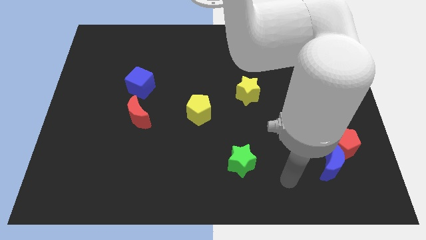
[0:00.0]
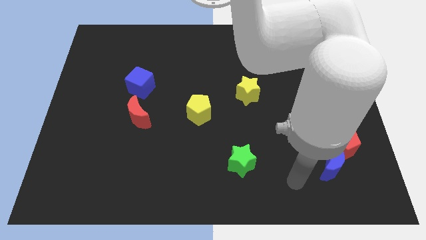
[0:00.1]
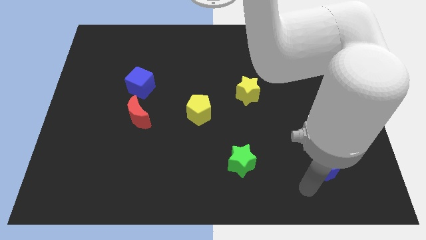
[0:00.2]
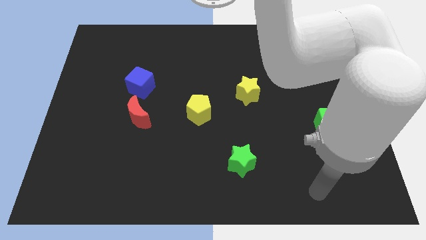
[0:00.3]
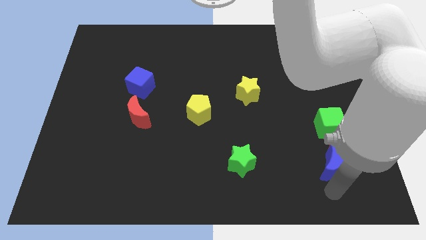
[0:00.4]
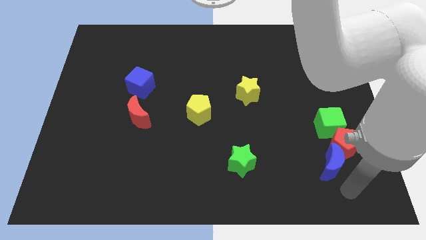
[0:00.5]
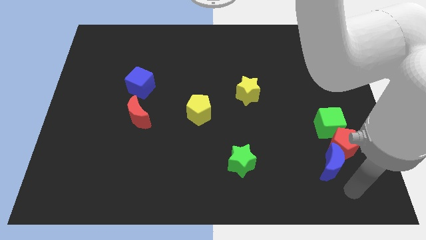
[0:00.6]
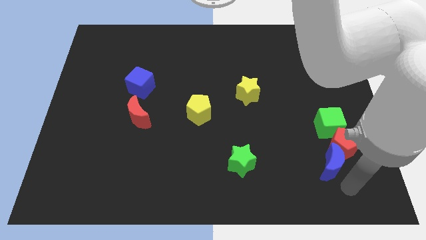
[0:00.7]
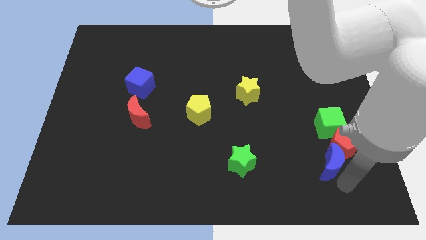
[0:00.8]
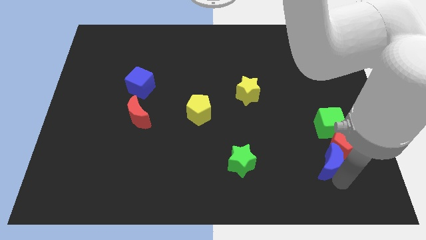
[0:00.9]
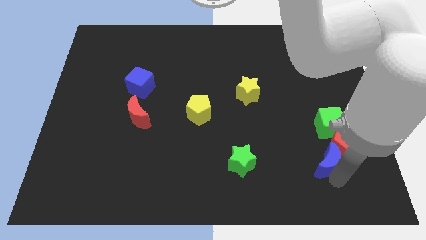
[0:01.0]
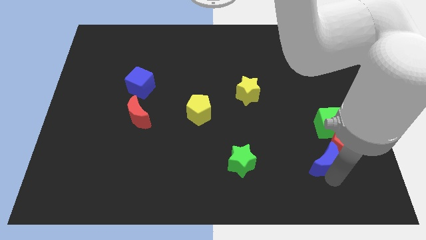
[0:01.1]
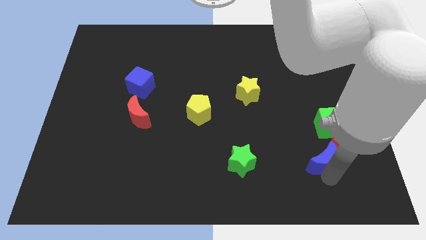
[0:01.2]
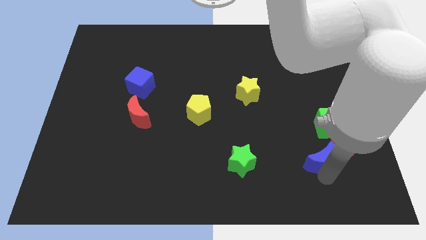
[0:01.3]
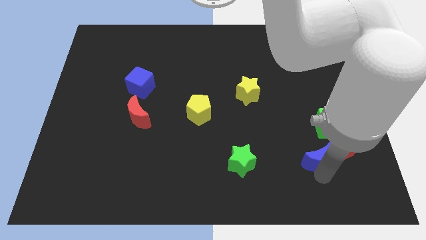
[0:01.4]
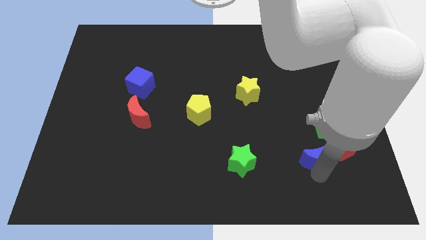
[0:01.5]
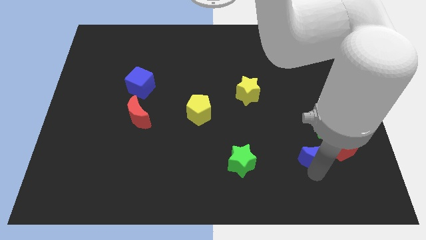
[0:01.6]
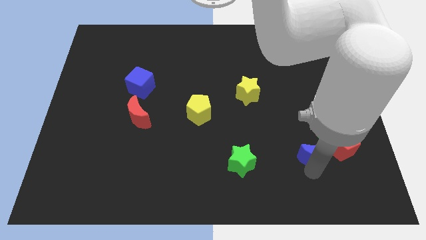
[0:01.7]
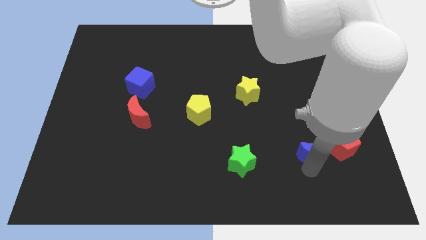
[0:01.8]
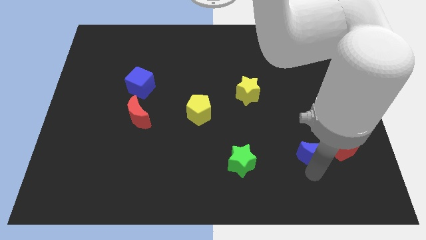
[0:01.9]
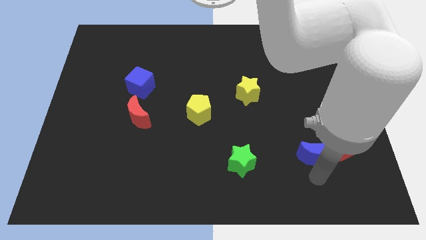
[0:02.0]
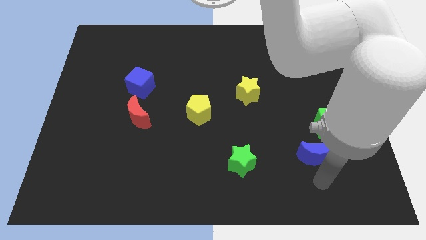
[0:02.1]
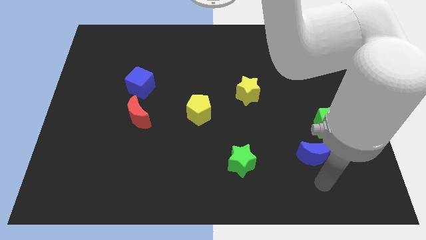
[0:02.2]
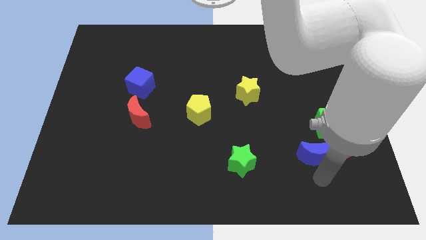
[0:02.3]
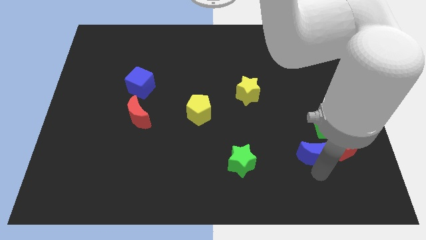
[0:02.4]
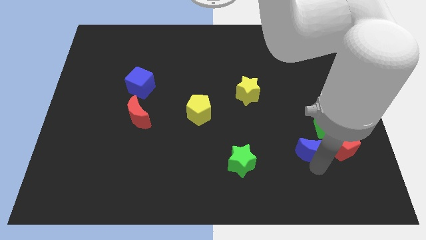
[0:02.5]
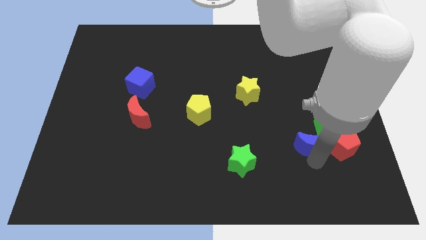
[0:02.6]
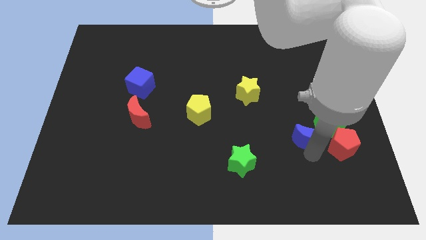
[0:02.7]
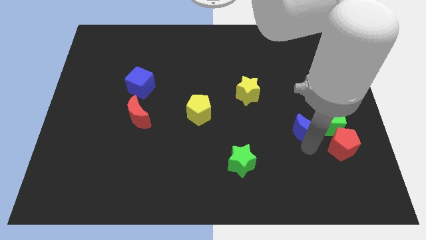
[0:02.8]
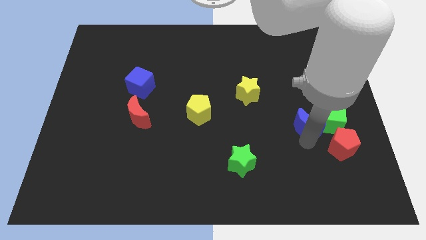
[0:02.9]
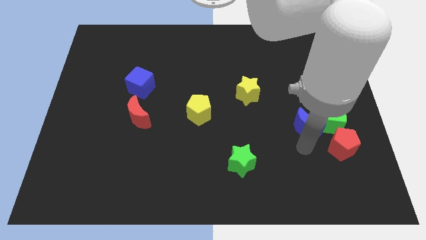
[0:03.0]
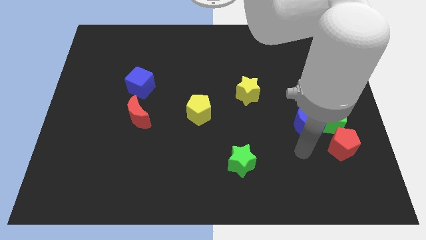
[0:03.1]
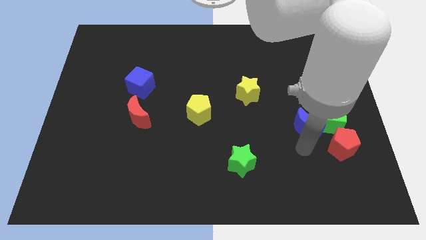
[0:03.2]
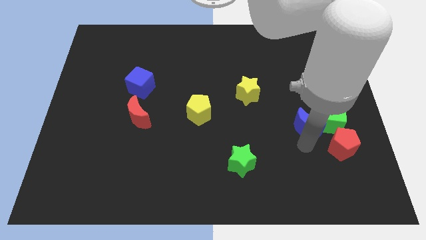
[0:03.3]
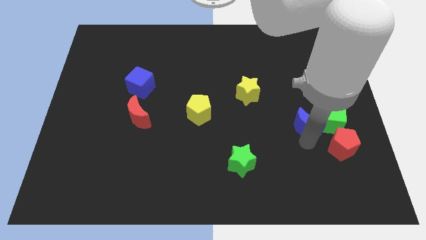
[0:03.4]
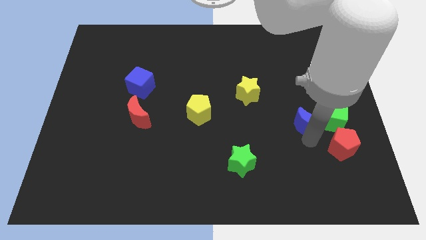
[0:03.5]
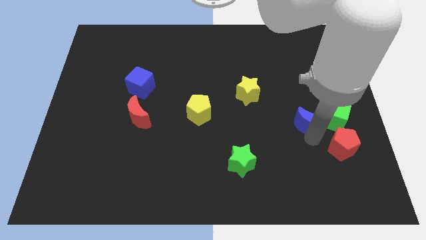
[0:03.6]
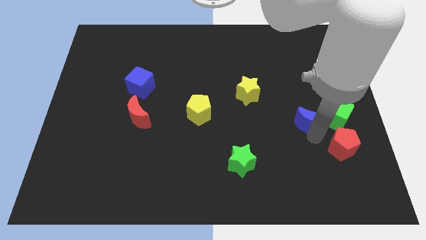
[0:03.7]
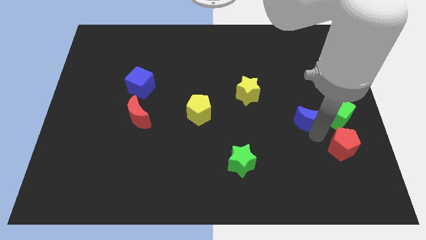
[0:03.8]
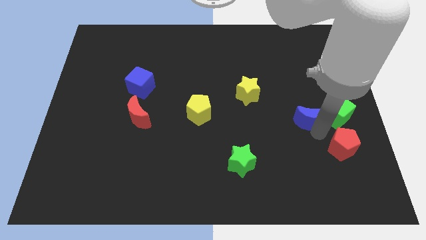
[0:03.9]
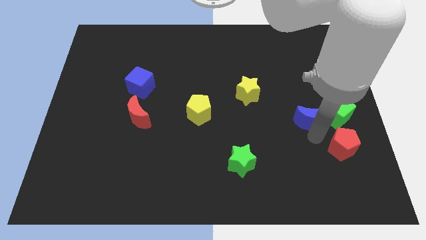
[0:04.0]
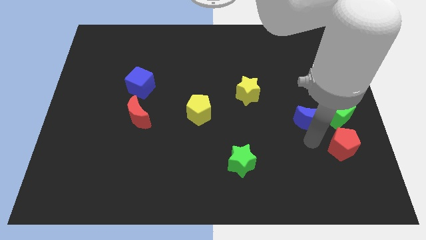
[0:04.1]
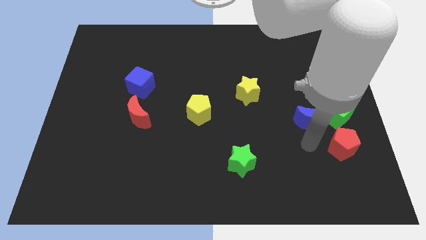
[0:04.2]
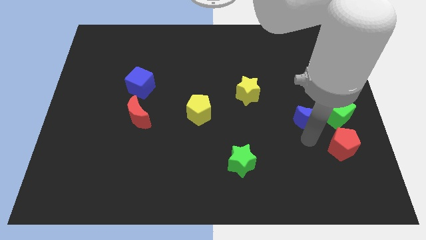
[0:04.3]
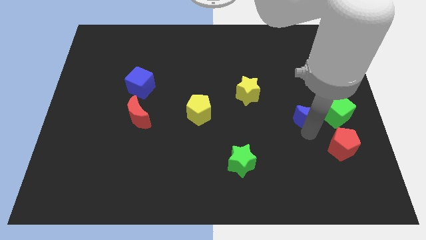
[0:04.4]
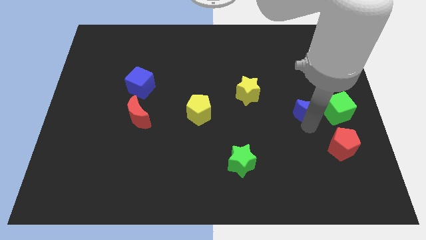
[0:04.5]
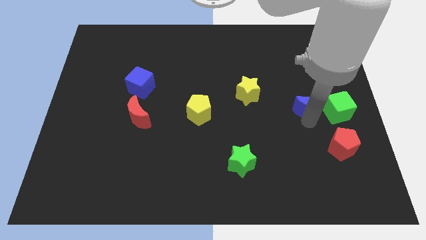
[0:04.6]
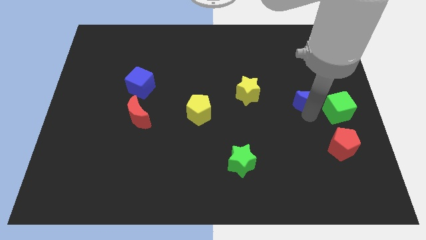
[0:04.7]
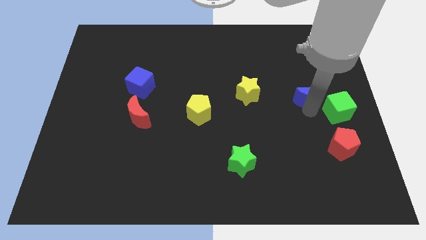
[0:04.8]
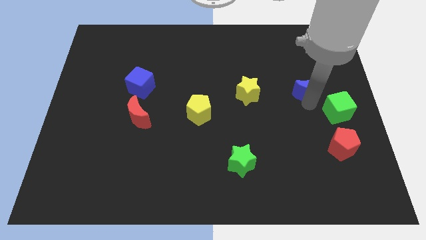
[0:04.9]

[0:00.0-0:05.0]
slide the blue moon up

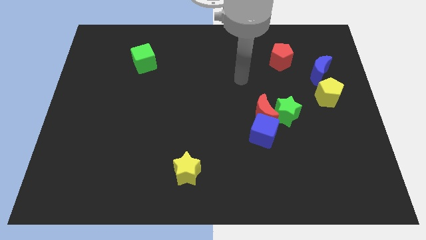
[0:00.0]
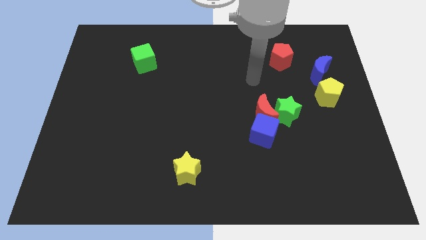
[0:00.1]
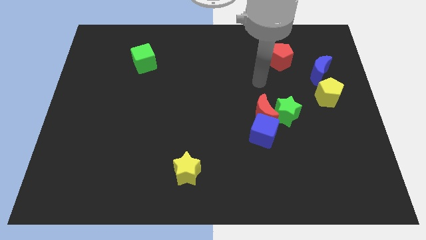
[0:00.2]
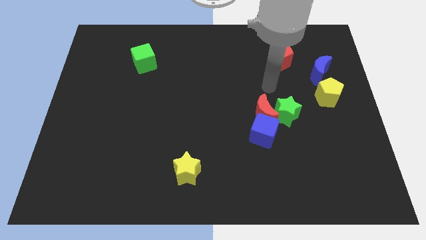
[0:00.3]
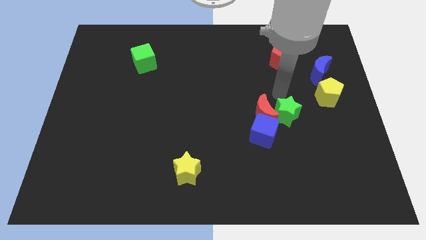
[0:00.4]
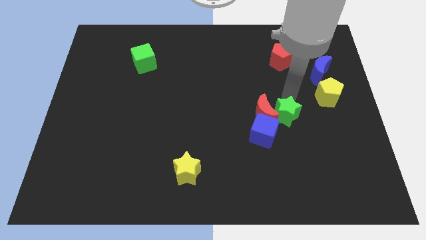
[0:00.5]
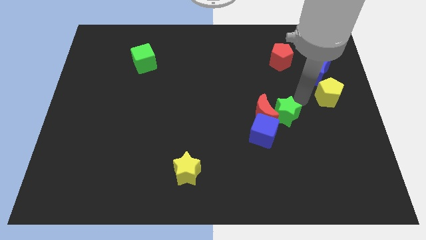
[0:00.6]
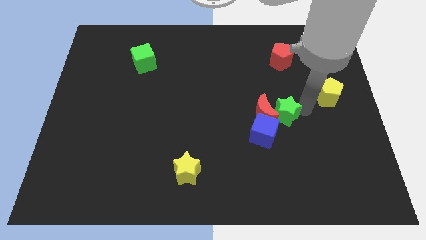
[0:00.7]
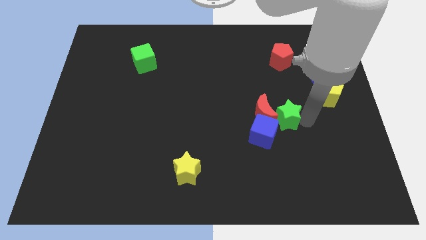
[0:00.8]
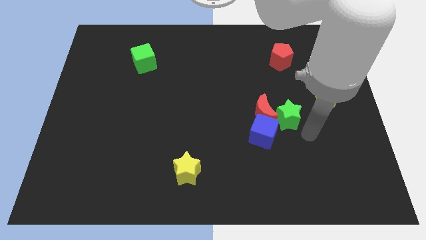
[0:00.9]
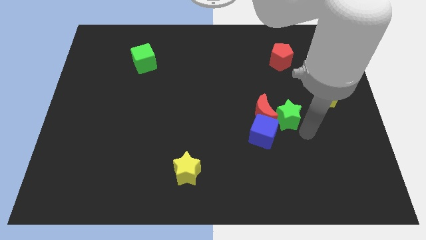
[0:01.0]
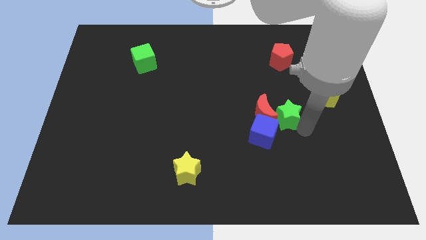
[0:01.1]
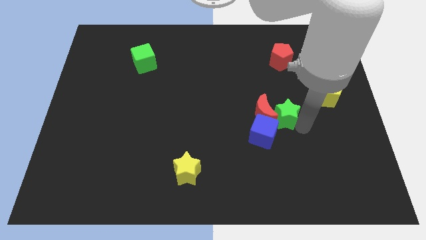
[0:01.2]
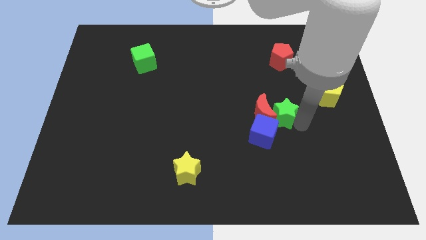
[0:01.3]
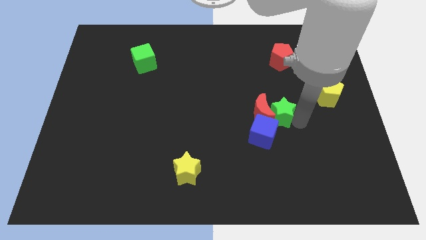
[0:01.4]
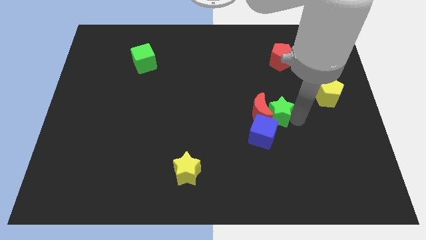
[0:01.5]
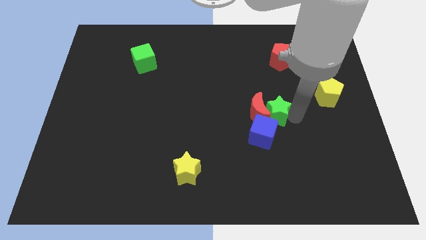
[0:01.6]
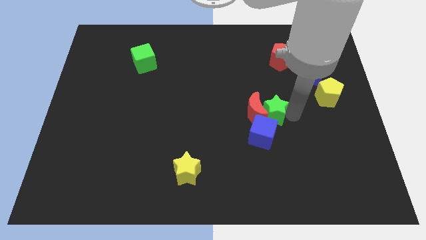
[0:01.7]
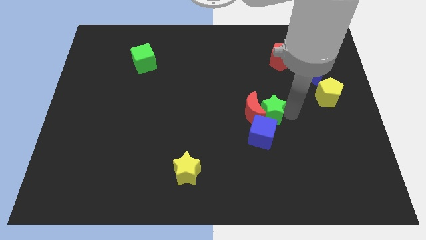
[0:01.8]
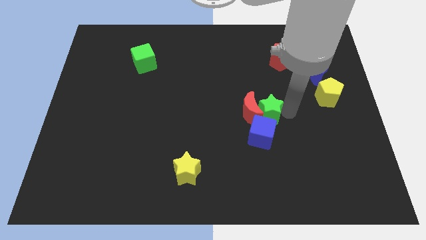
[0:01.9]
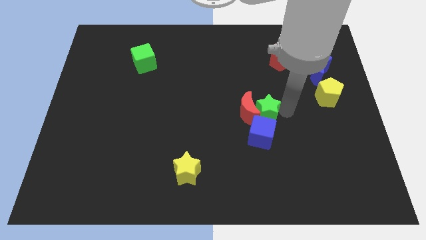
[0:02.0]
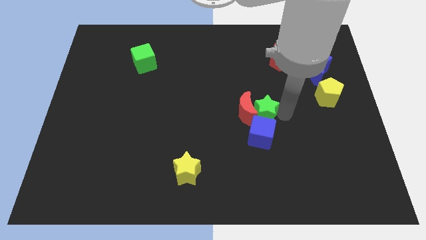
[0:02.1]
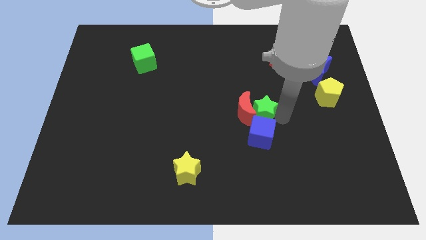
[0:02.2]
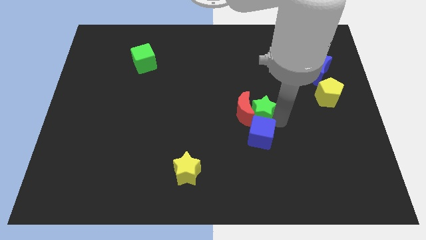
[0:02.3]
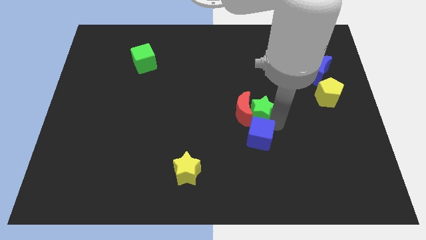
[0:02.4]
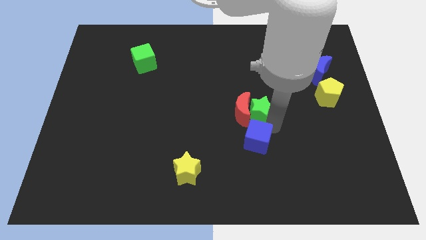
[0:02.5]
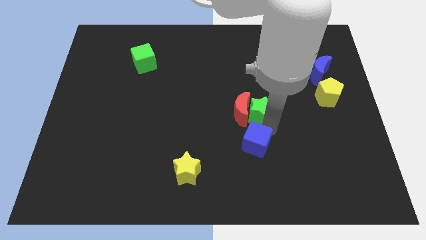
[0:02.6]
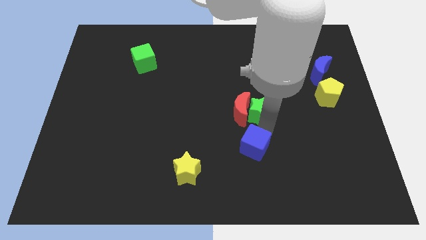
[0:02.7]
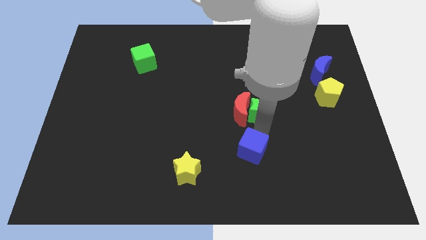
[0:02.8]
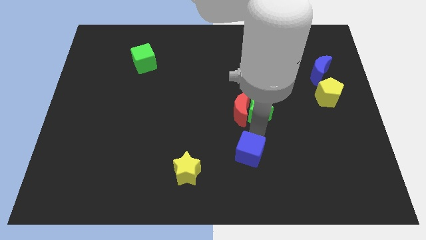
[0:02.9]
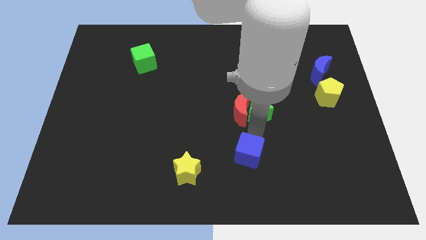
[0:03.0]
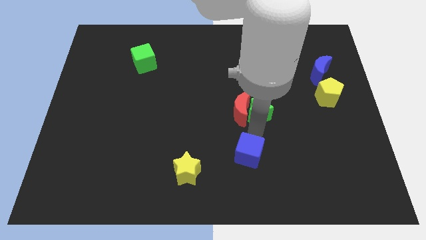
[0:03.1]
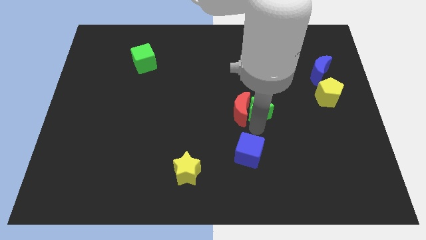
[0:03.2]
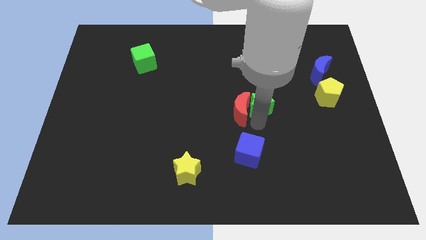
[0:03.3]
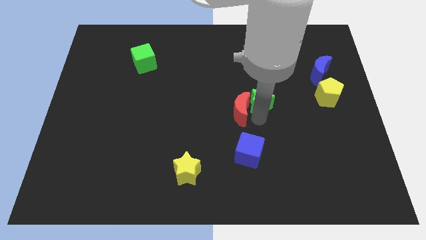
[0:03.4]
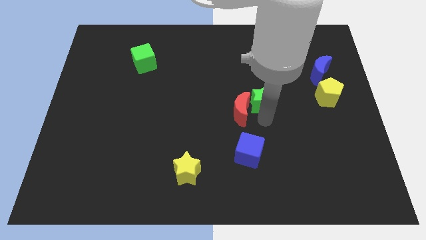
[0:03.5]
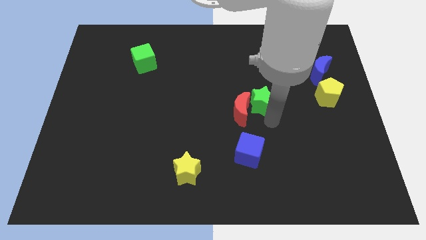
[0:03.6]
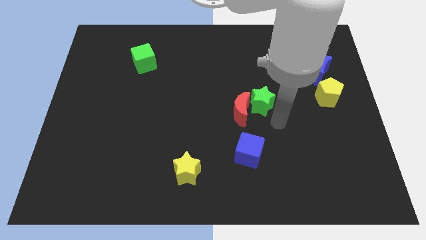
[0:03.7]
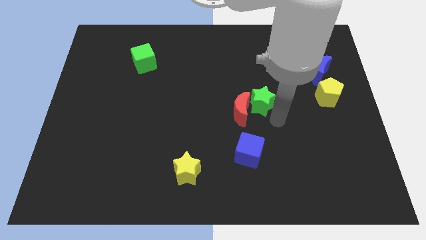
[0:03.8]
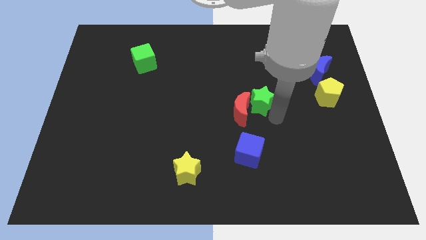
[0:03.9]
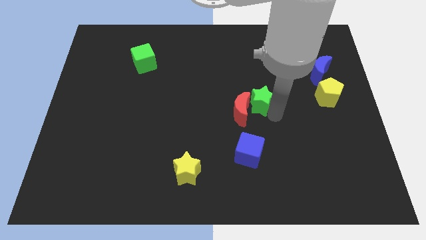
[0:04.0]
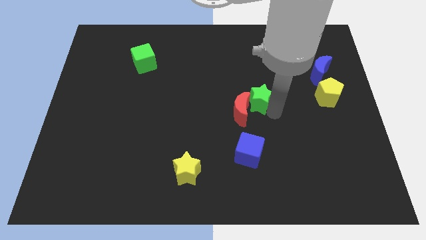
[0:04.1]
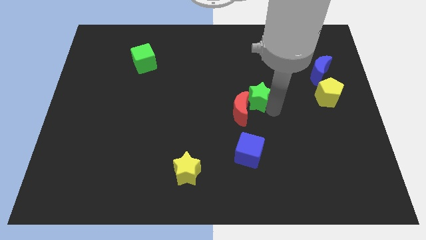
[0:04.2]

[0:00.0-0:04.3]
push the green star slightly diagonally up and left
